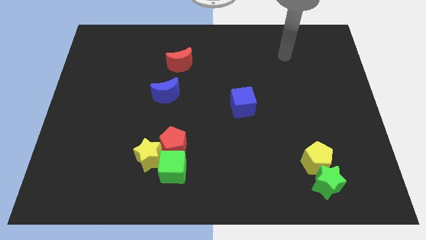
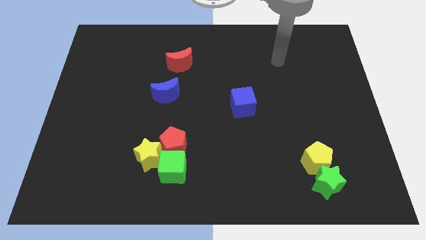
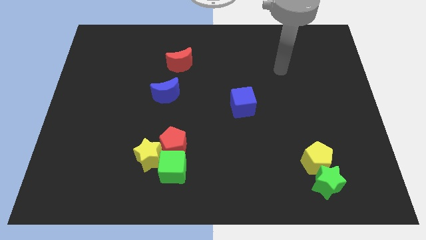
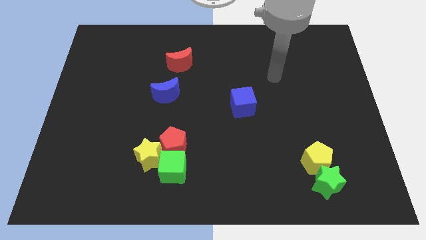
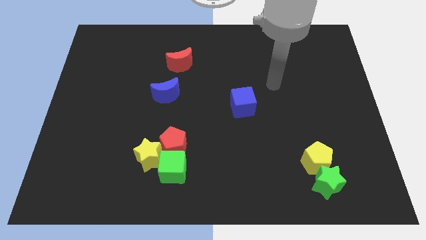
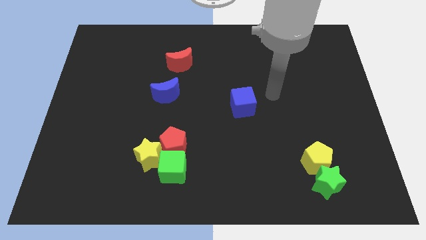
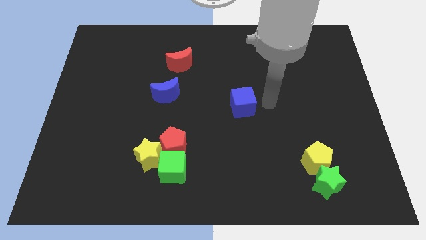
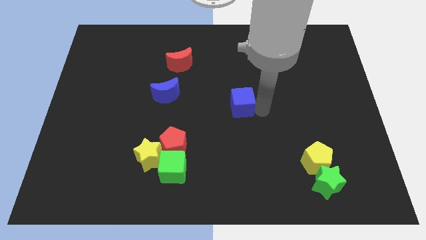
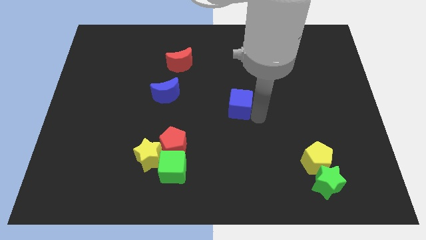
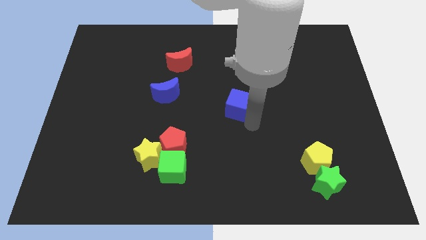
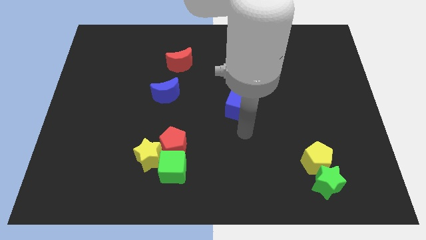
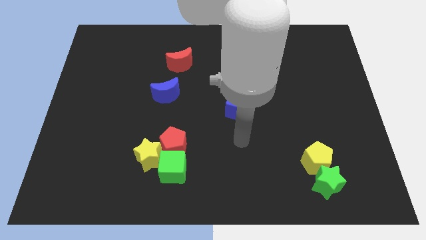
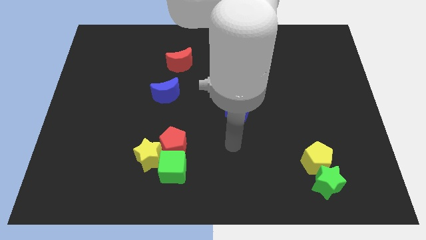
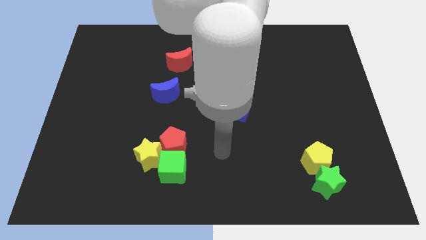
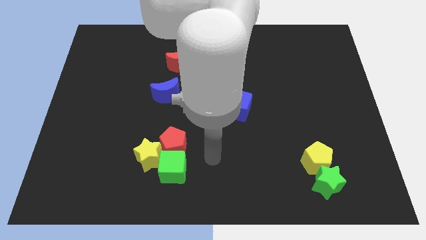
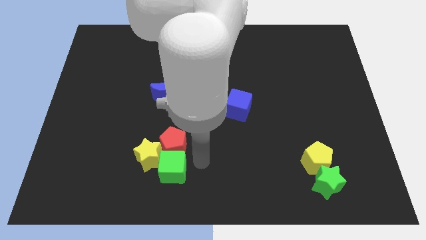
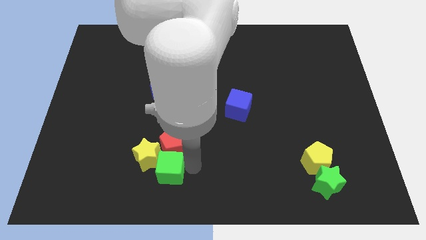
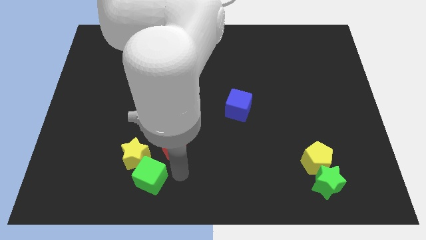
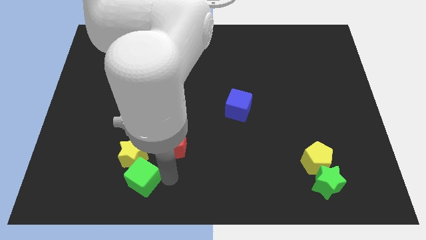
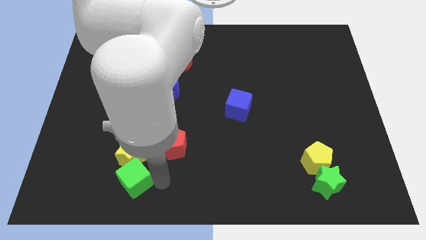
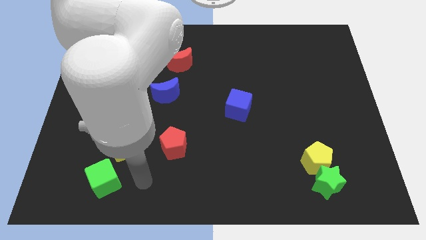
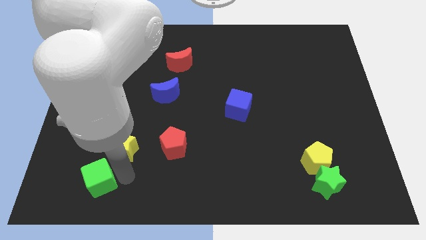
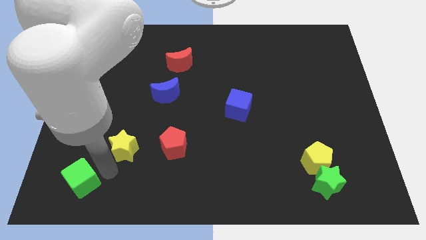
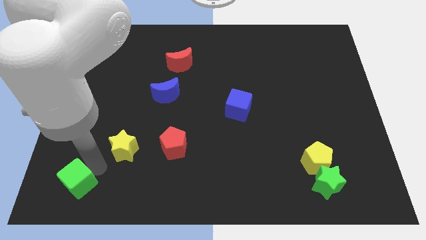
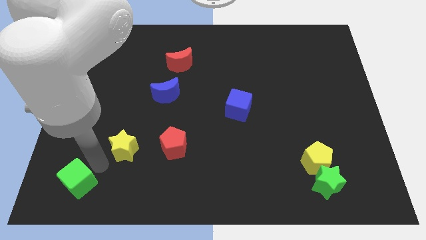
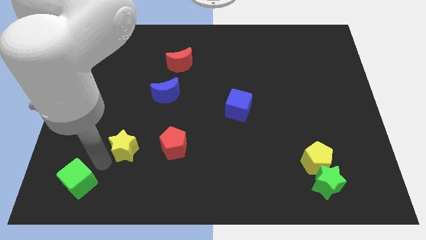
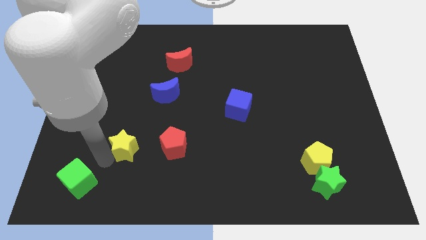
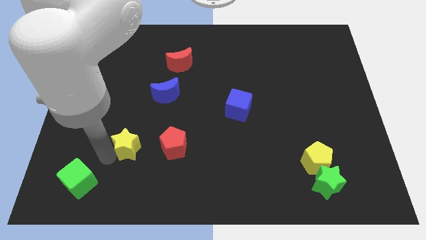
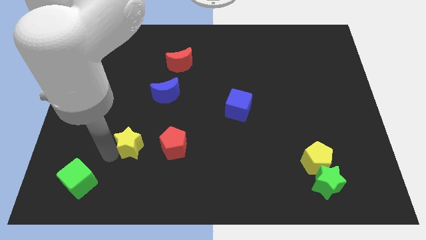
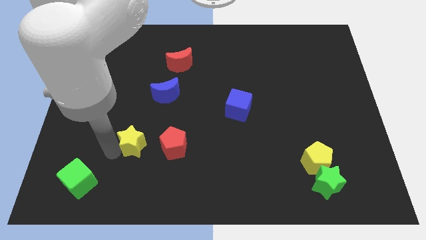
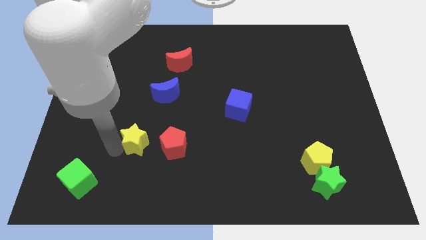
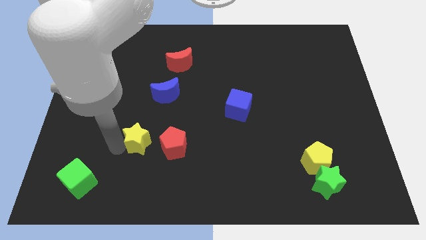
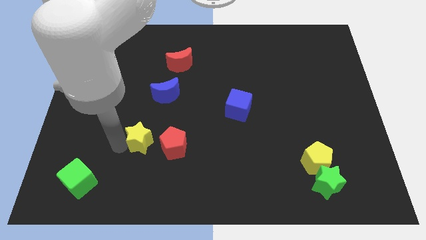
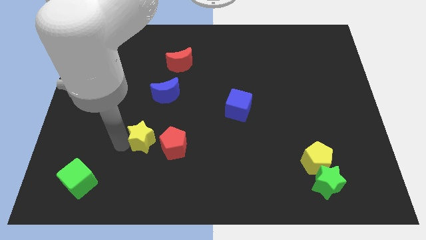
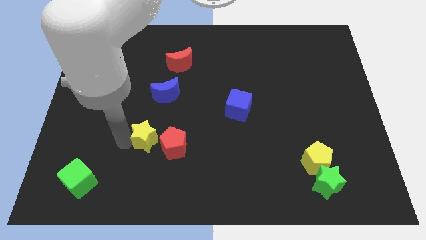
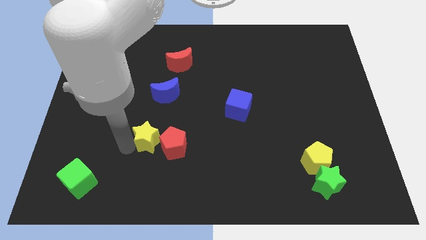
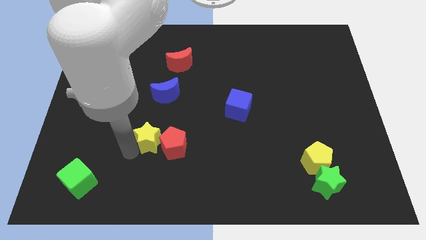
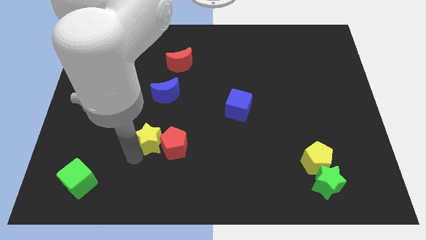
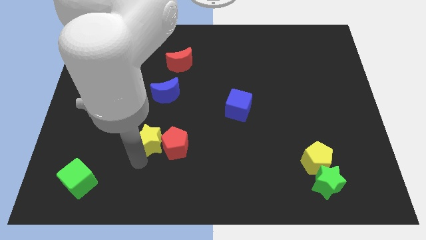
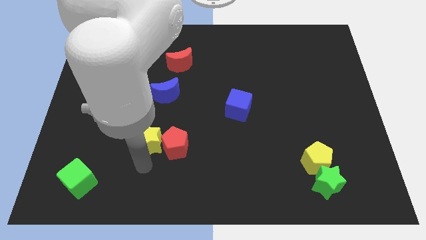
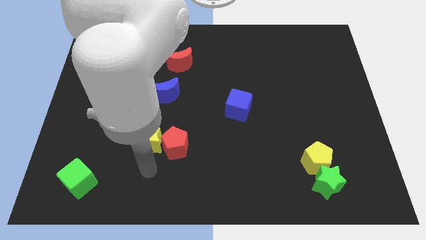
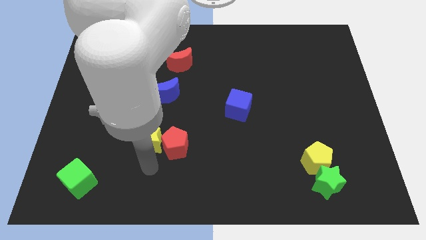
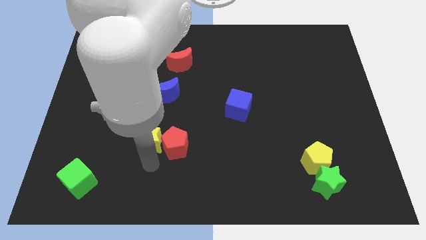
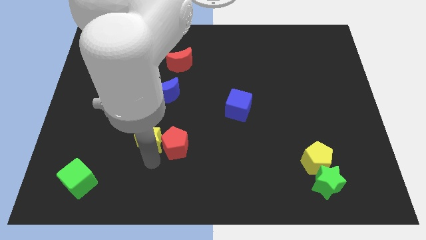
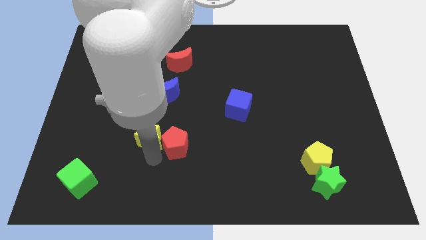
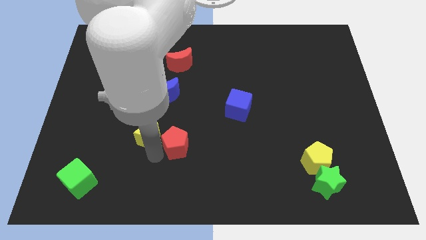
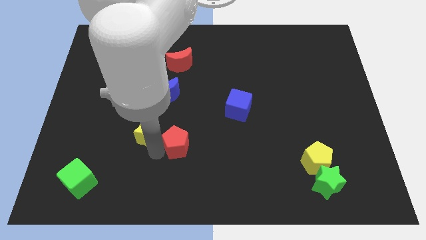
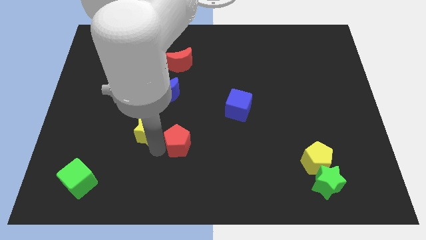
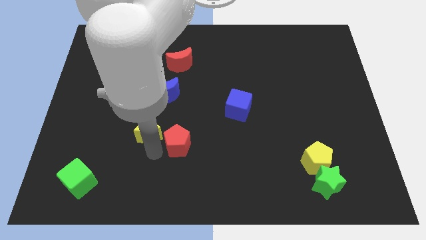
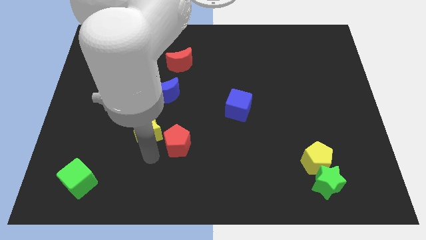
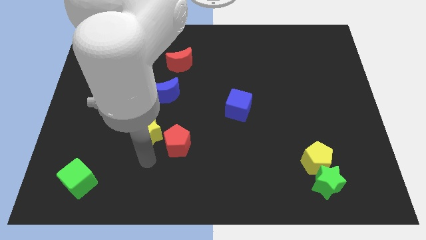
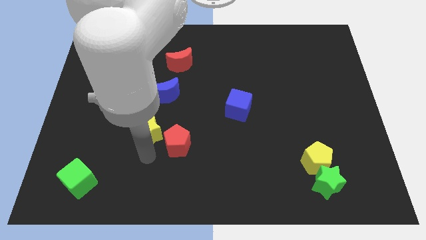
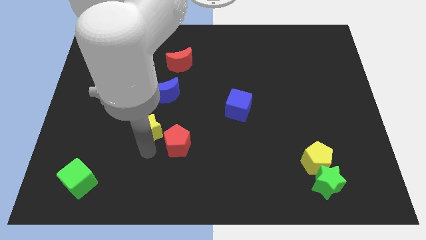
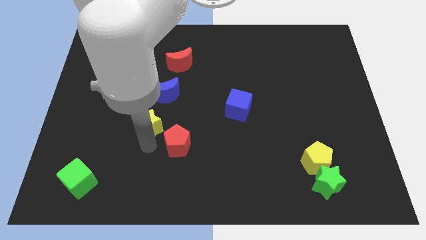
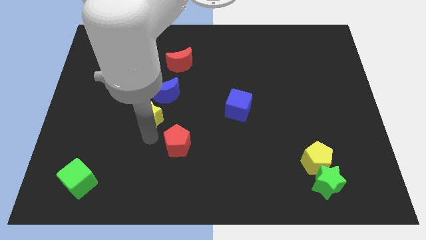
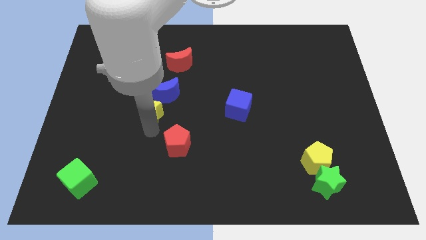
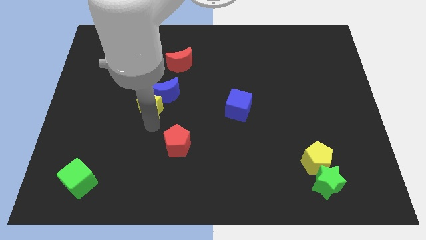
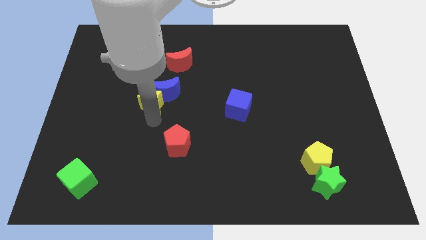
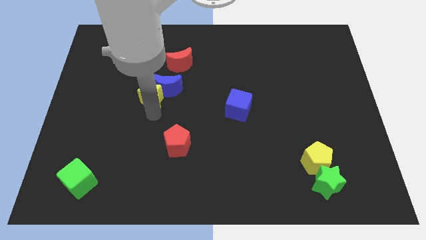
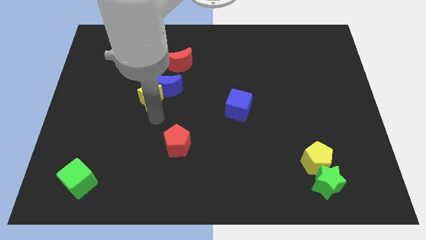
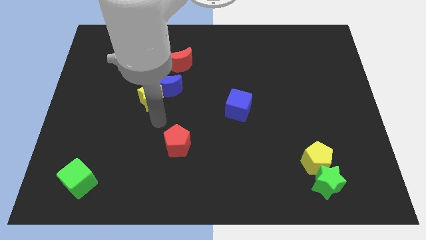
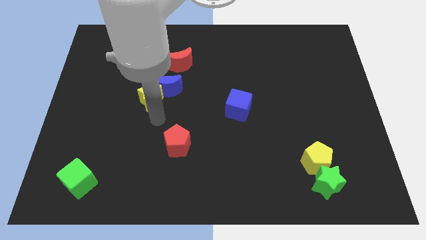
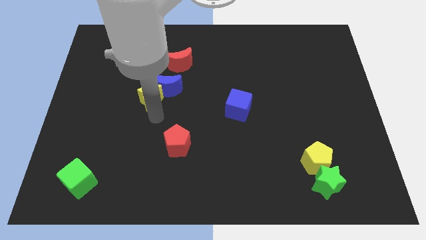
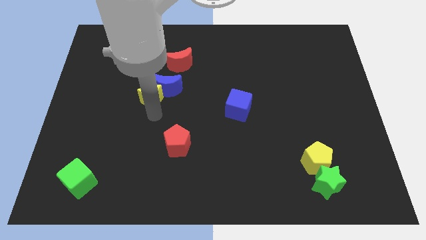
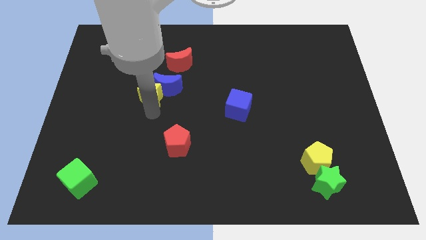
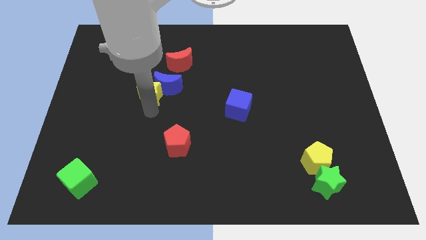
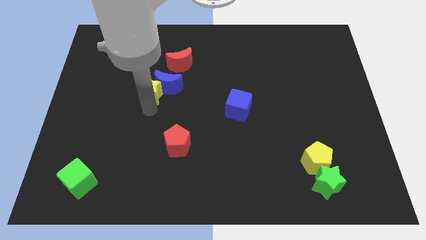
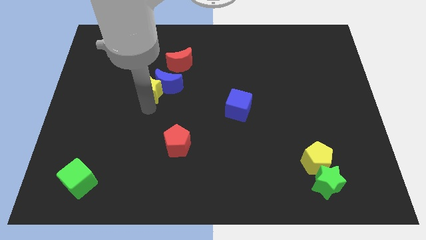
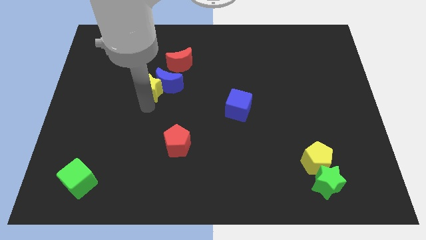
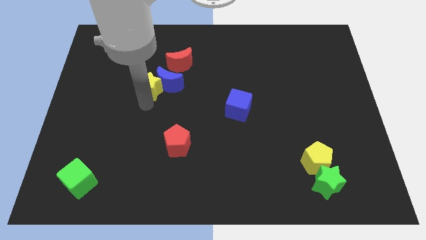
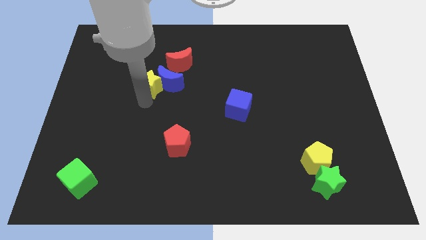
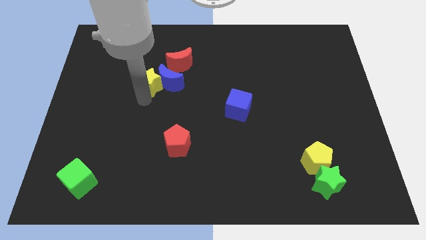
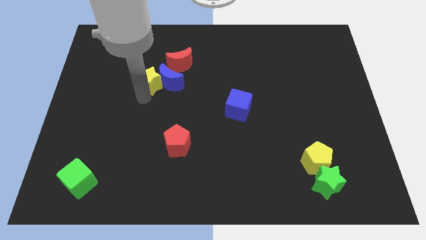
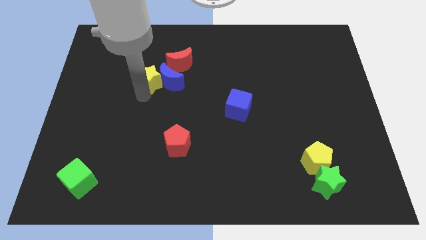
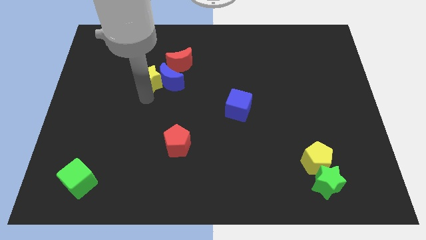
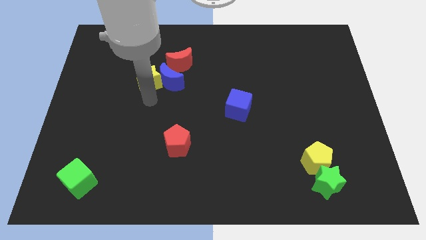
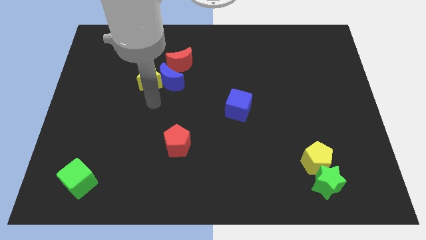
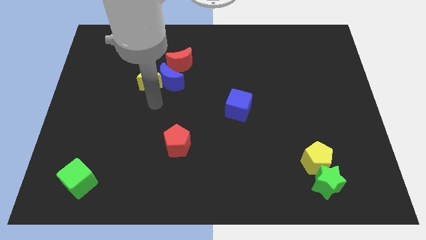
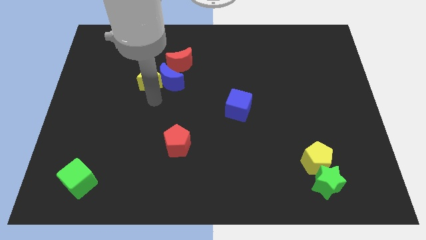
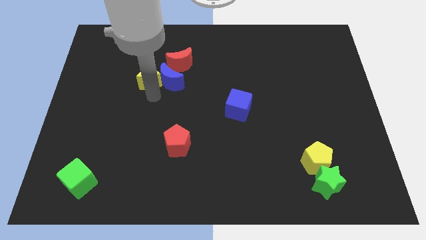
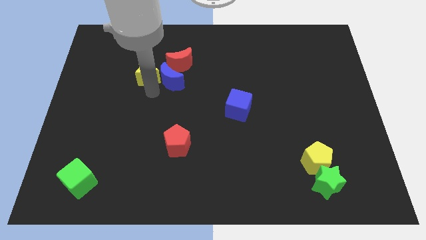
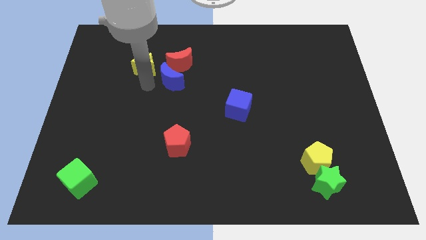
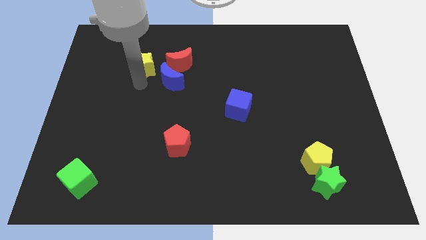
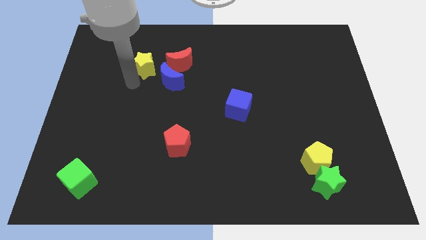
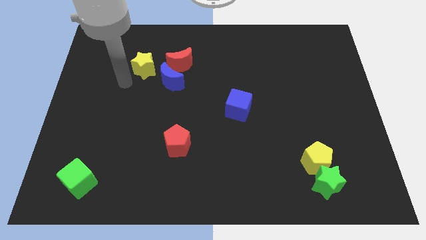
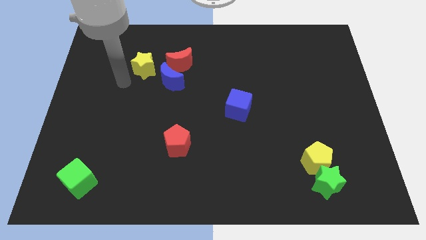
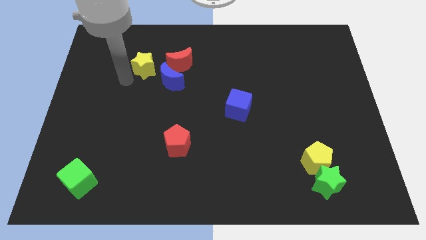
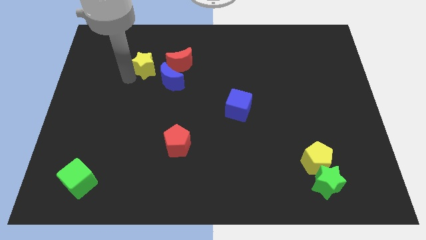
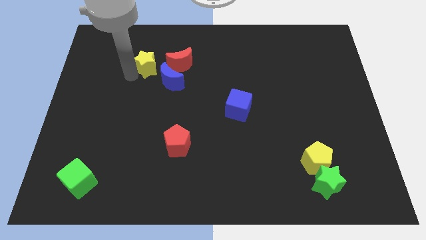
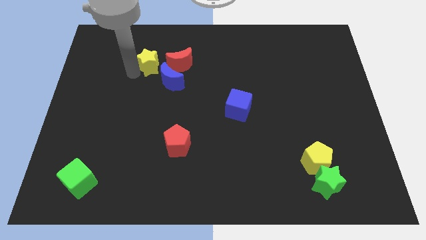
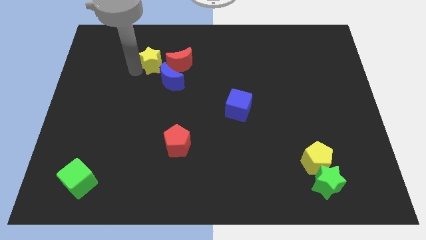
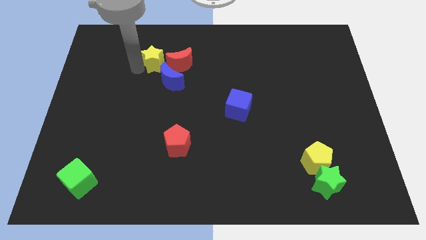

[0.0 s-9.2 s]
put the yellow star to the top of the blue moon
